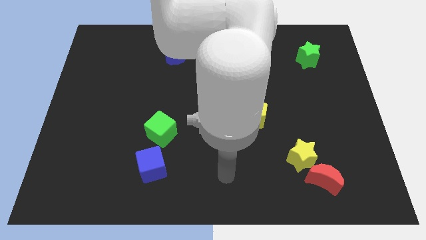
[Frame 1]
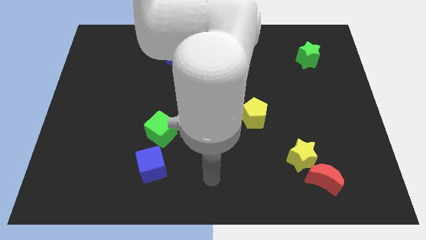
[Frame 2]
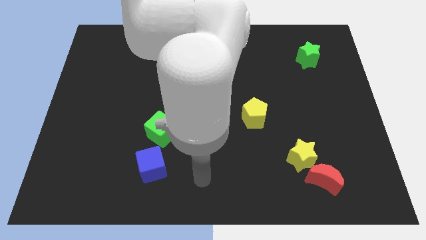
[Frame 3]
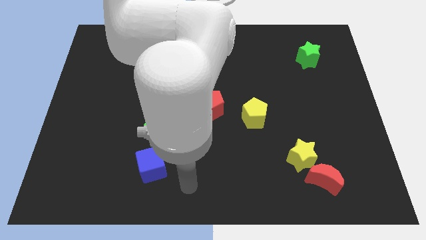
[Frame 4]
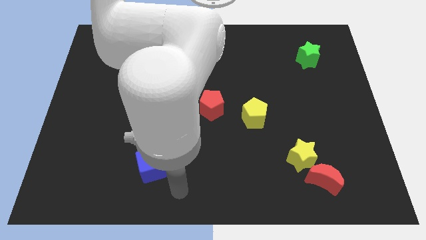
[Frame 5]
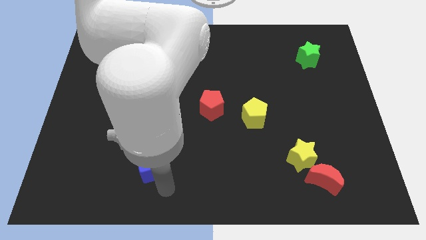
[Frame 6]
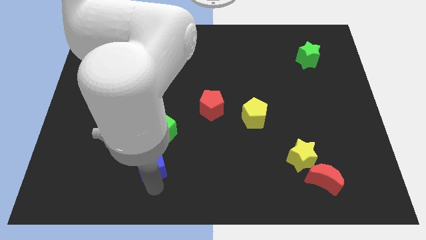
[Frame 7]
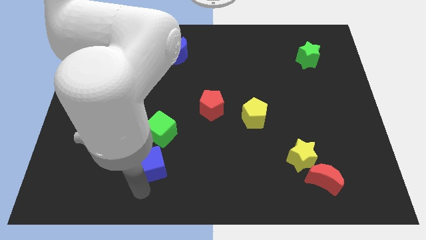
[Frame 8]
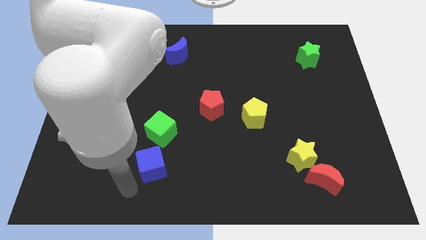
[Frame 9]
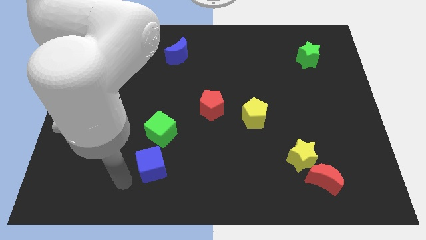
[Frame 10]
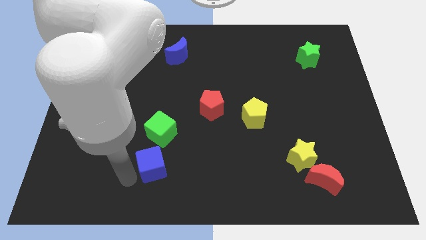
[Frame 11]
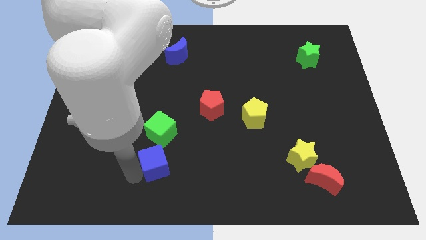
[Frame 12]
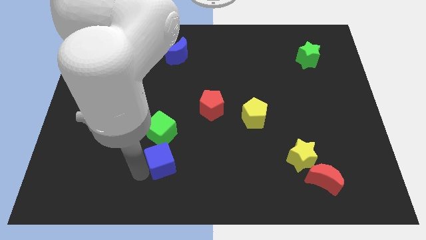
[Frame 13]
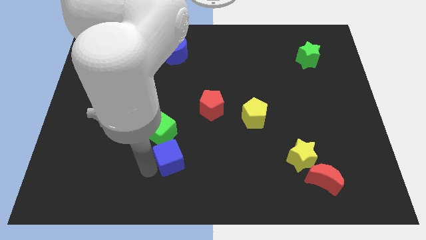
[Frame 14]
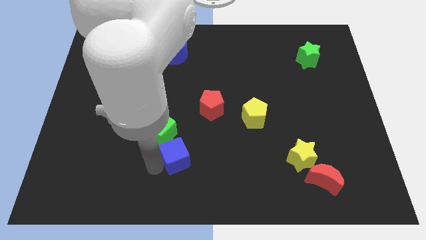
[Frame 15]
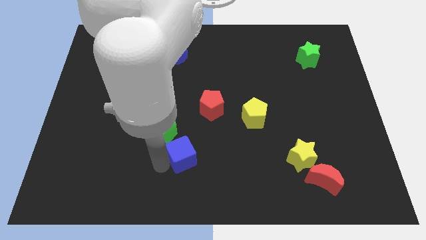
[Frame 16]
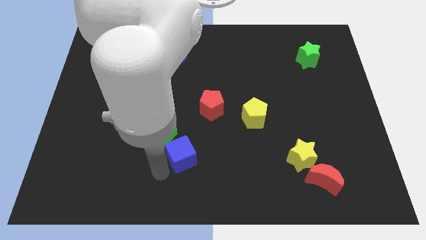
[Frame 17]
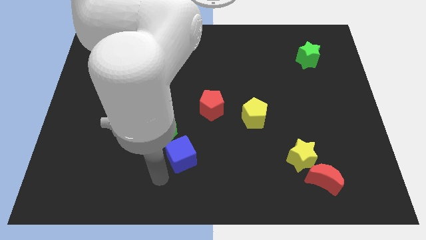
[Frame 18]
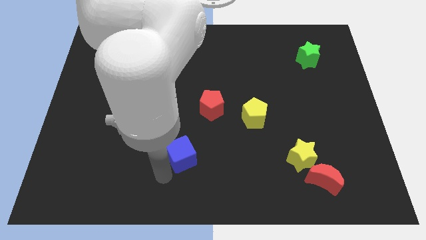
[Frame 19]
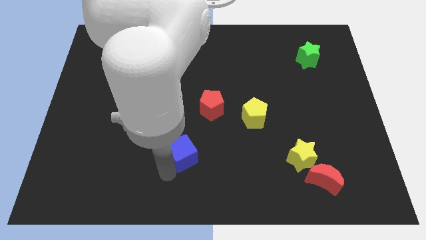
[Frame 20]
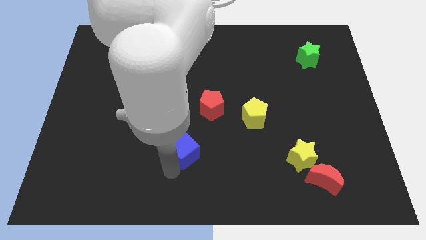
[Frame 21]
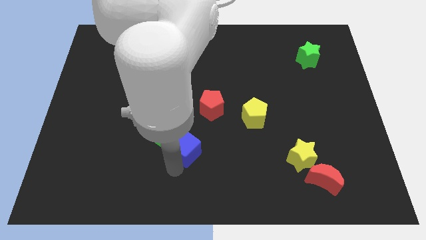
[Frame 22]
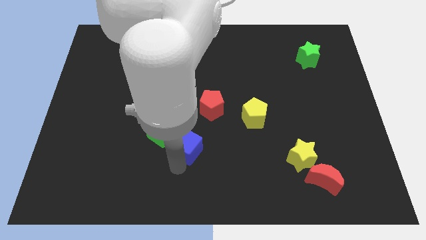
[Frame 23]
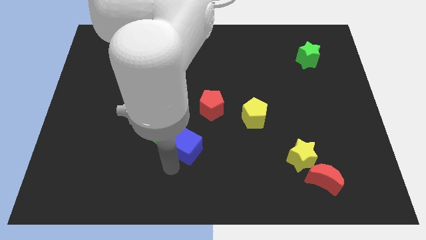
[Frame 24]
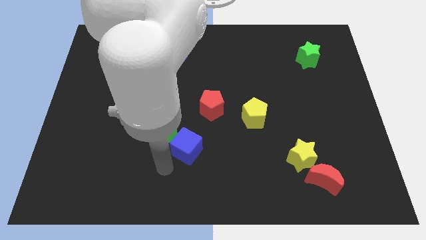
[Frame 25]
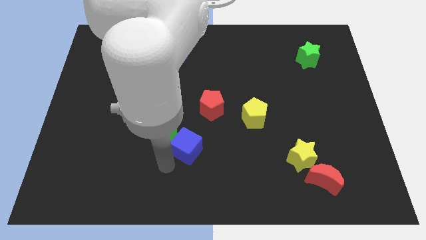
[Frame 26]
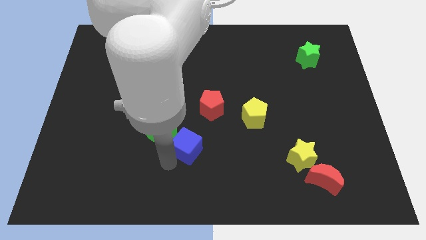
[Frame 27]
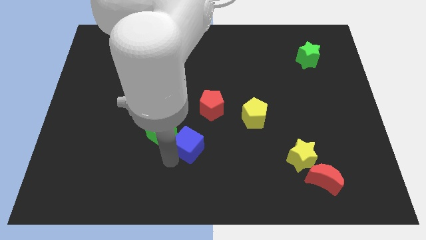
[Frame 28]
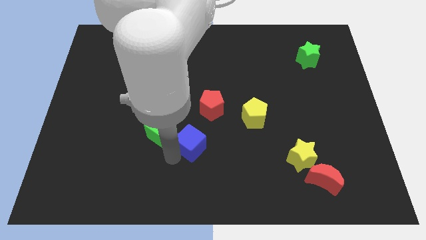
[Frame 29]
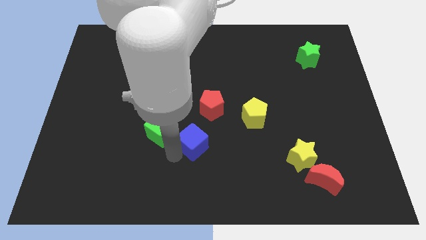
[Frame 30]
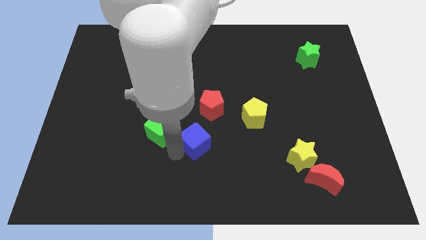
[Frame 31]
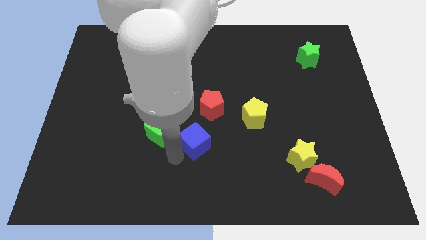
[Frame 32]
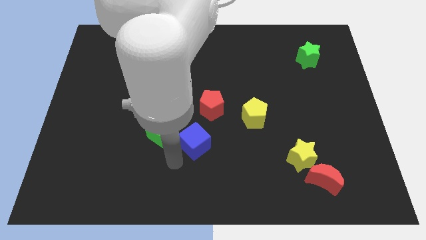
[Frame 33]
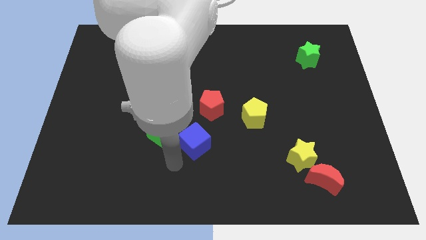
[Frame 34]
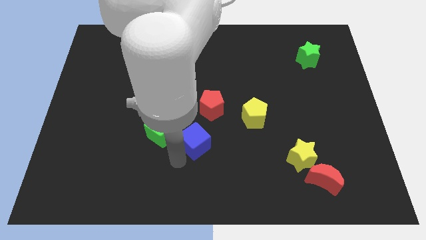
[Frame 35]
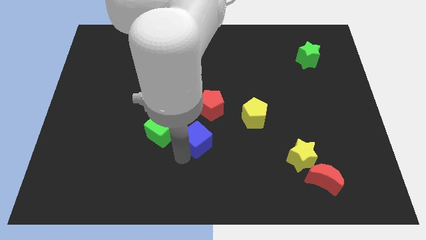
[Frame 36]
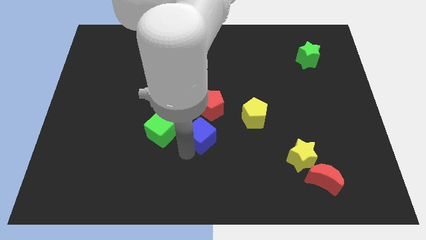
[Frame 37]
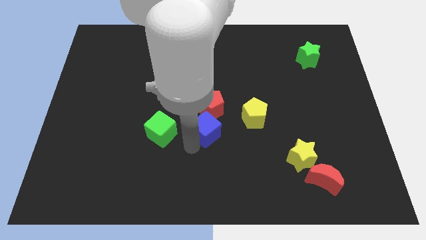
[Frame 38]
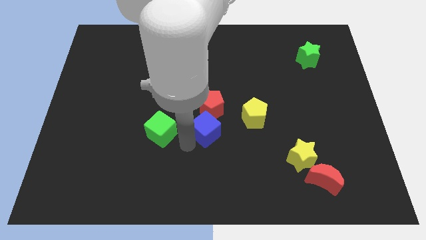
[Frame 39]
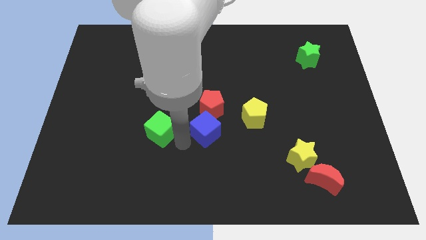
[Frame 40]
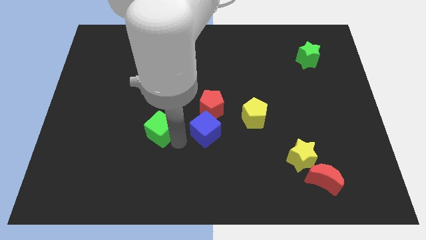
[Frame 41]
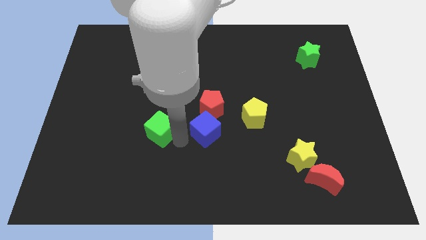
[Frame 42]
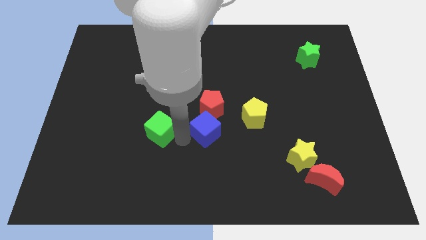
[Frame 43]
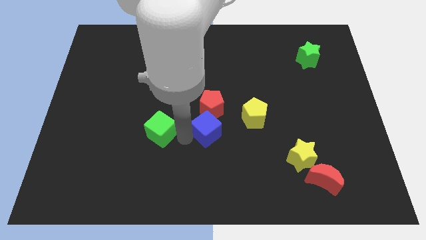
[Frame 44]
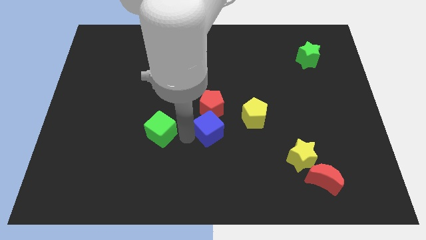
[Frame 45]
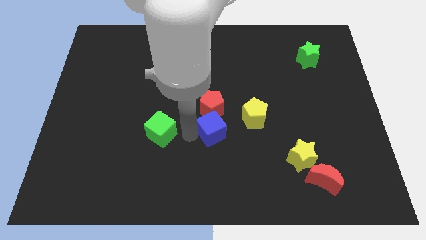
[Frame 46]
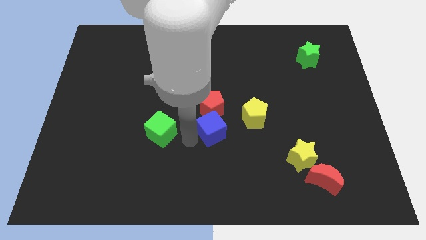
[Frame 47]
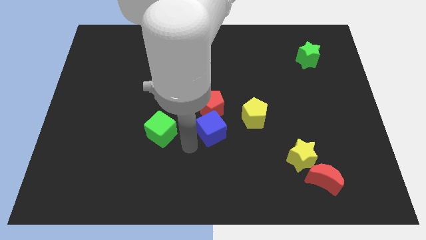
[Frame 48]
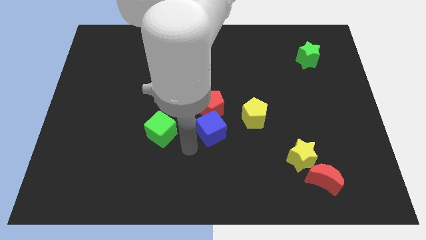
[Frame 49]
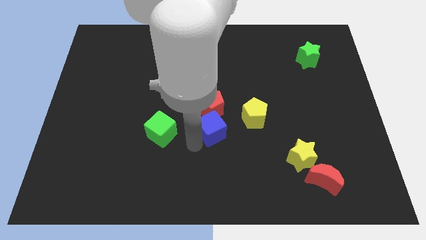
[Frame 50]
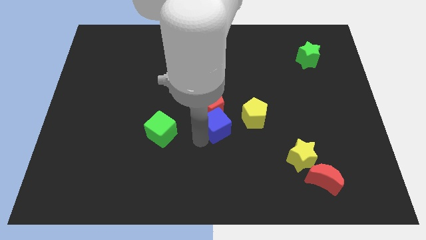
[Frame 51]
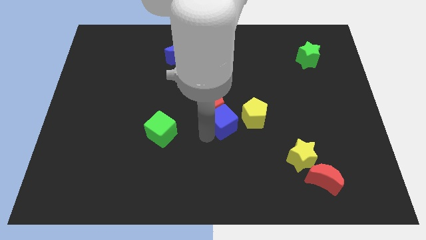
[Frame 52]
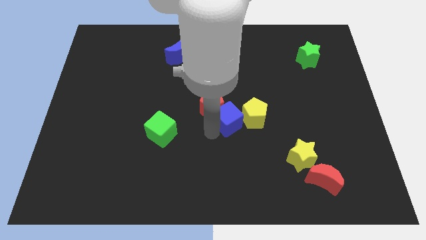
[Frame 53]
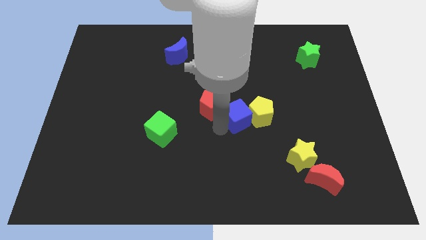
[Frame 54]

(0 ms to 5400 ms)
push the blue cube up and right

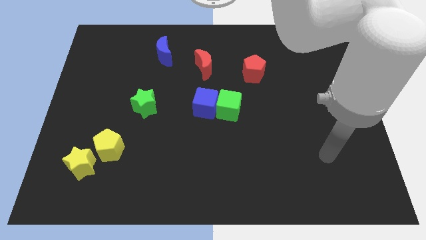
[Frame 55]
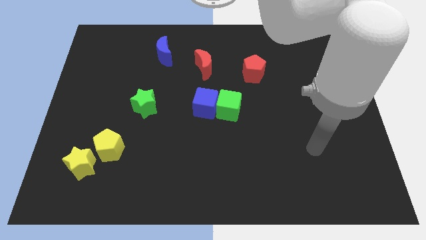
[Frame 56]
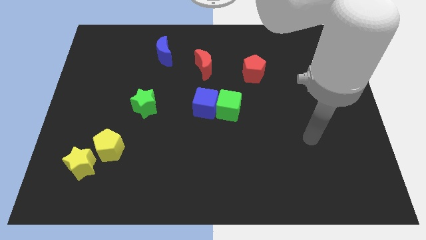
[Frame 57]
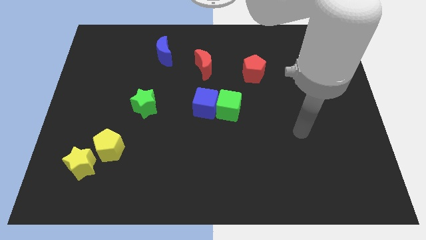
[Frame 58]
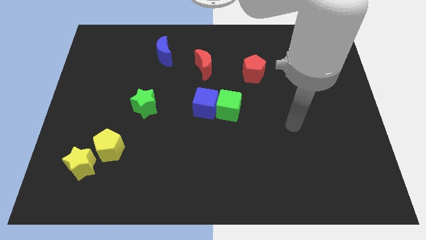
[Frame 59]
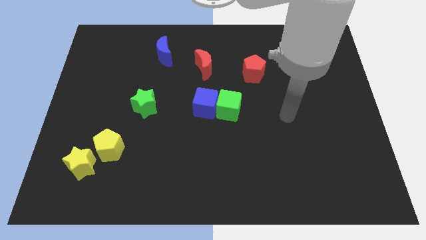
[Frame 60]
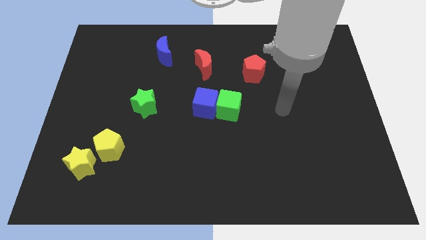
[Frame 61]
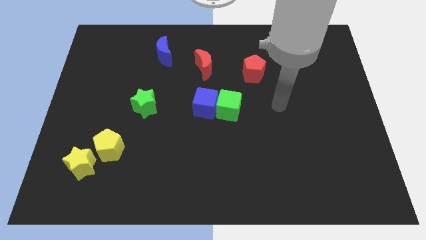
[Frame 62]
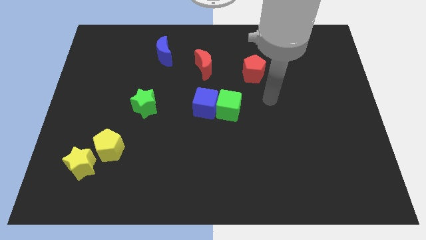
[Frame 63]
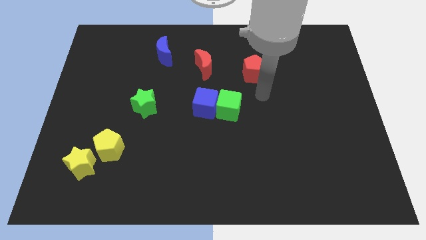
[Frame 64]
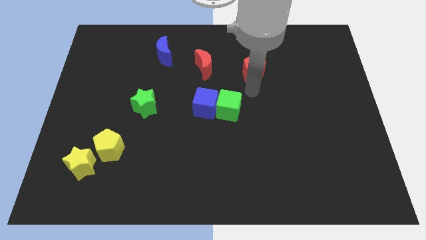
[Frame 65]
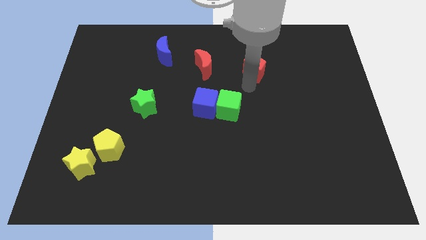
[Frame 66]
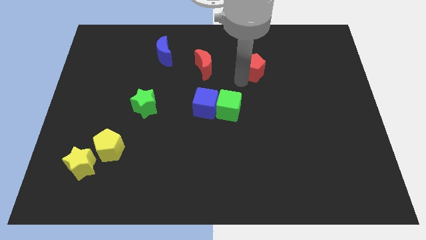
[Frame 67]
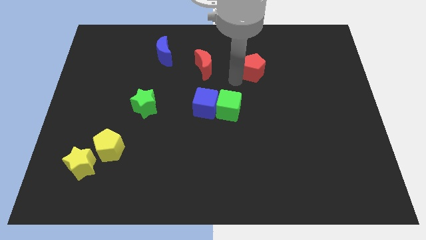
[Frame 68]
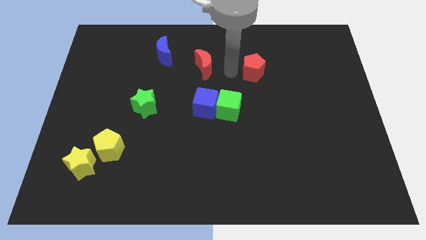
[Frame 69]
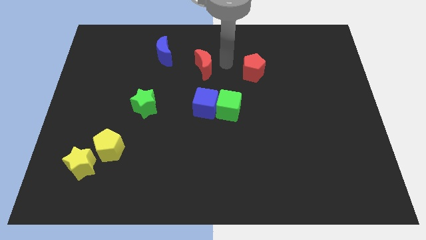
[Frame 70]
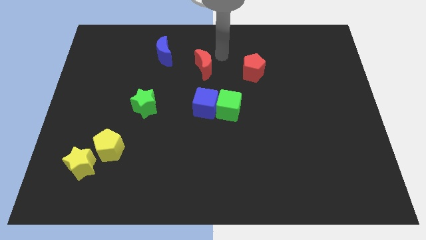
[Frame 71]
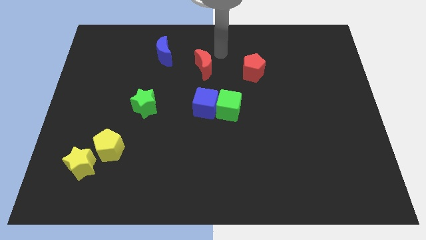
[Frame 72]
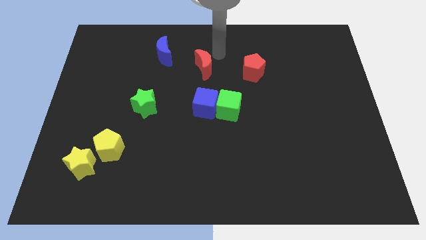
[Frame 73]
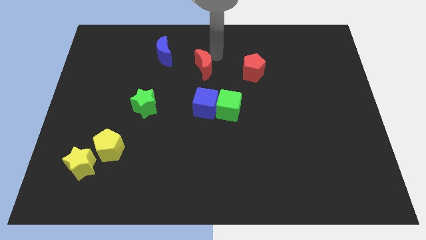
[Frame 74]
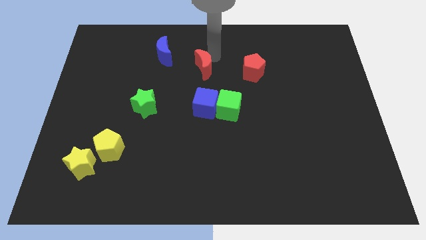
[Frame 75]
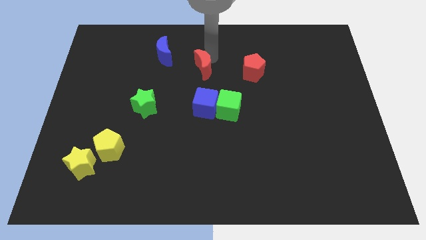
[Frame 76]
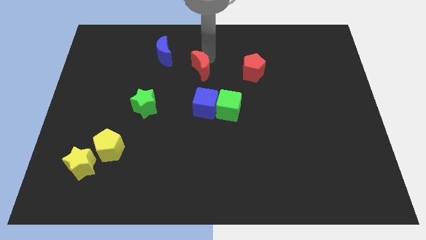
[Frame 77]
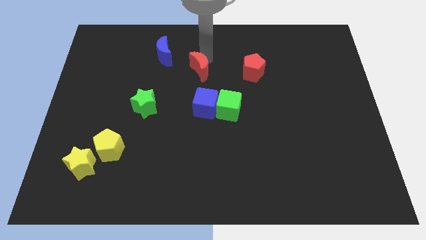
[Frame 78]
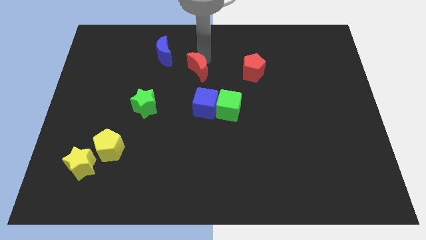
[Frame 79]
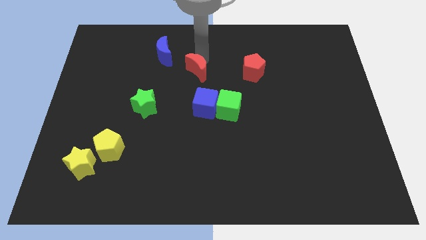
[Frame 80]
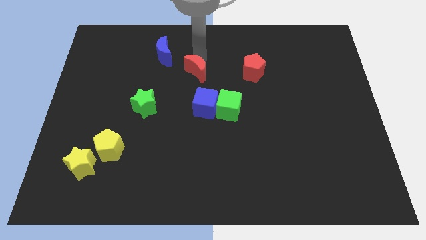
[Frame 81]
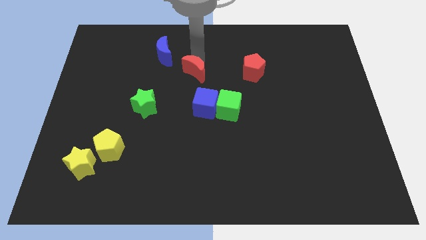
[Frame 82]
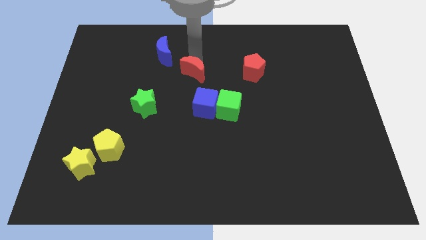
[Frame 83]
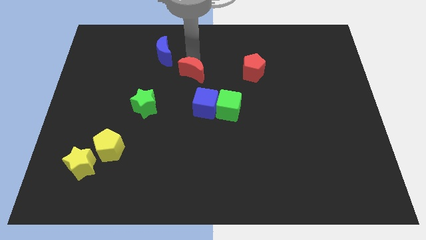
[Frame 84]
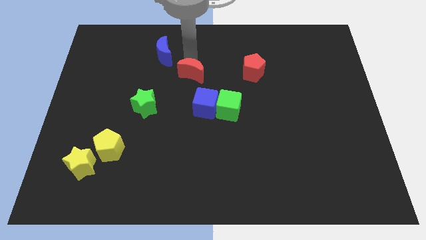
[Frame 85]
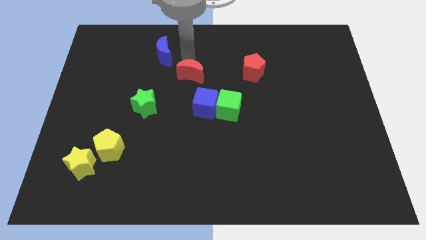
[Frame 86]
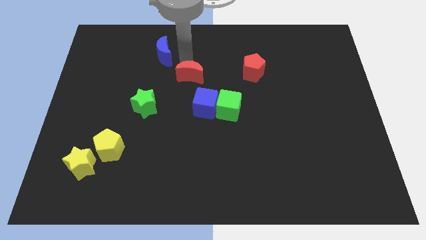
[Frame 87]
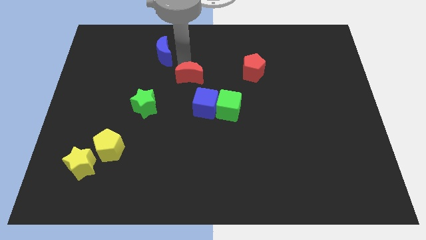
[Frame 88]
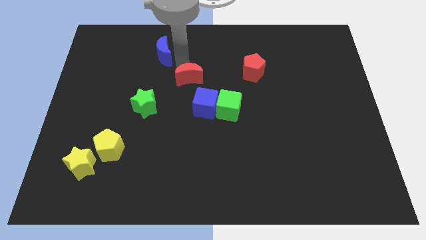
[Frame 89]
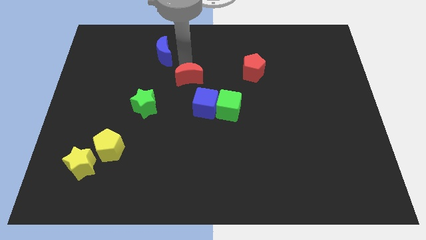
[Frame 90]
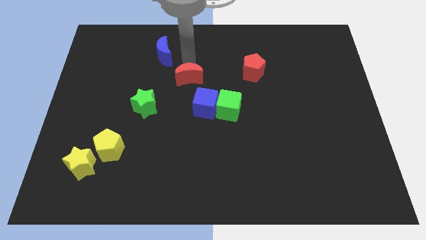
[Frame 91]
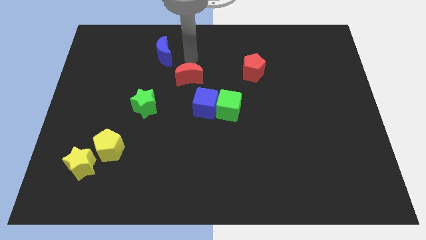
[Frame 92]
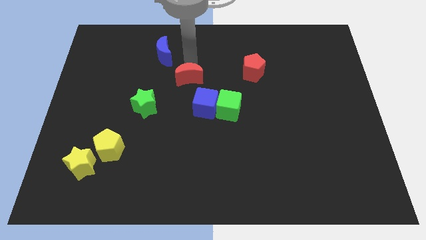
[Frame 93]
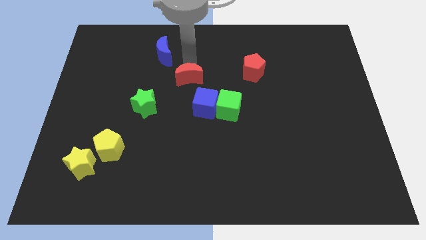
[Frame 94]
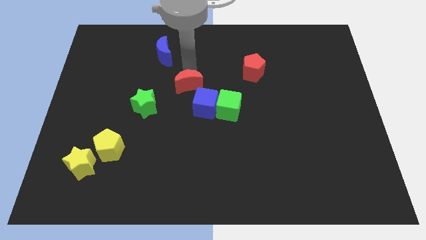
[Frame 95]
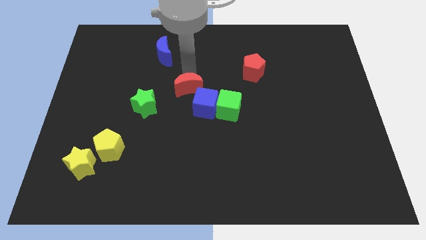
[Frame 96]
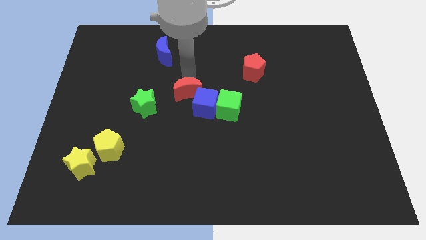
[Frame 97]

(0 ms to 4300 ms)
slightly move the red moon downwards
